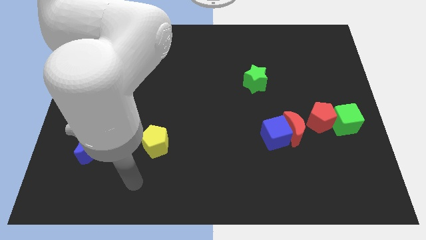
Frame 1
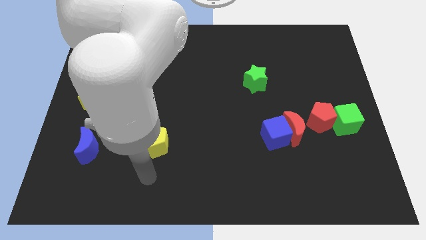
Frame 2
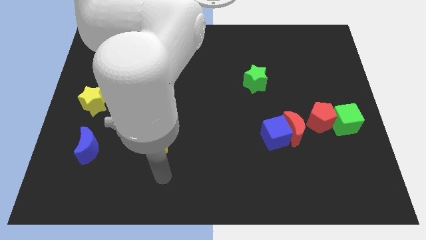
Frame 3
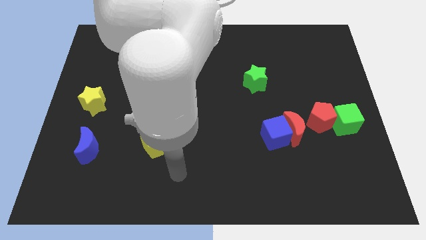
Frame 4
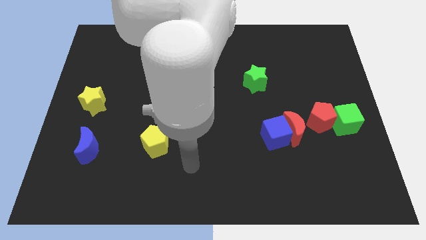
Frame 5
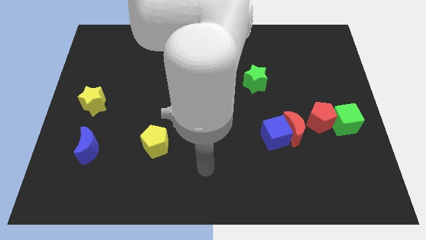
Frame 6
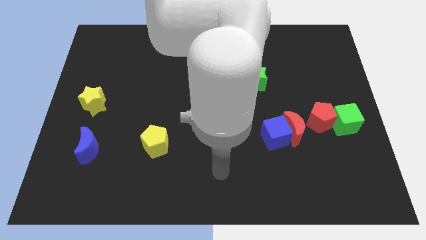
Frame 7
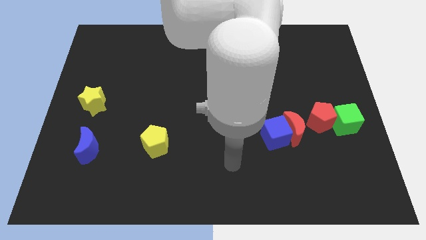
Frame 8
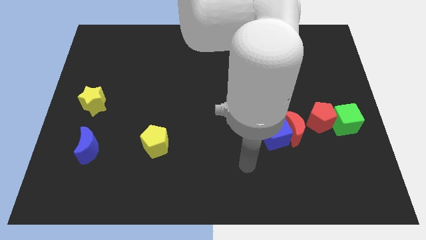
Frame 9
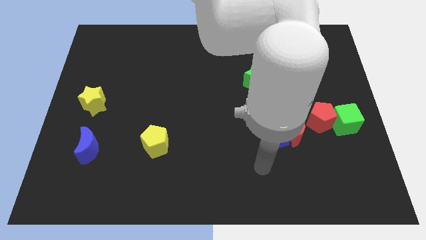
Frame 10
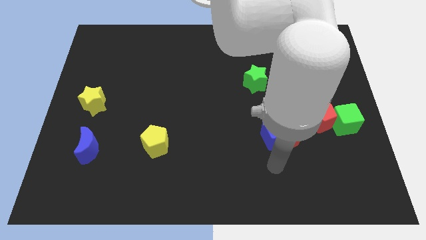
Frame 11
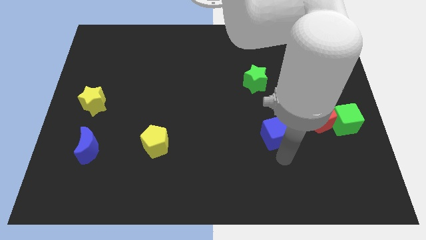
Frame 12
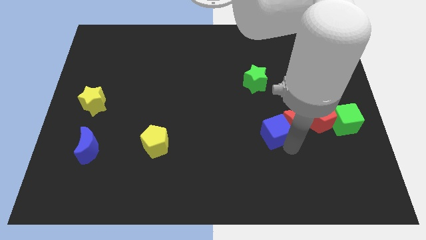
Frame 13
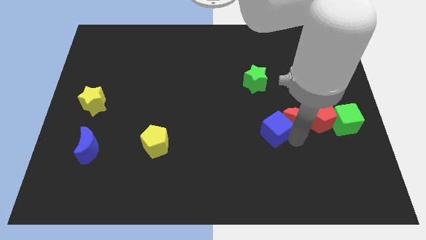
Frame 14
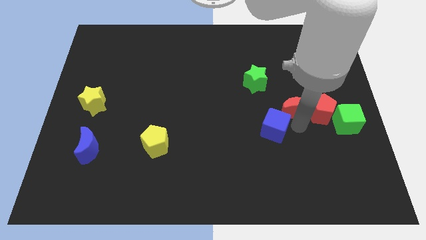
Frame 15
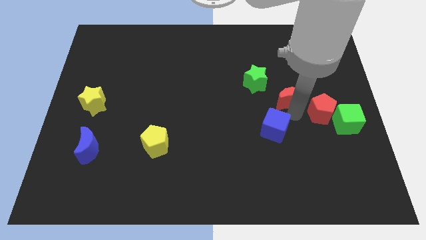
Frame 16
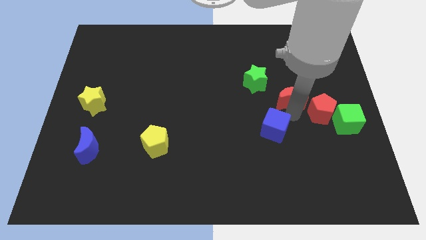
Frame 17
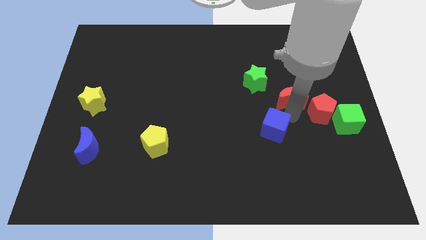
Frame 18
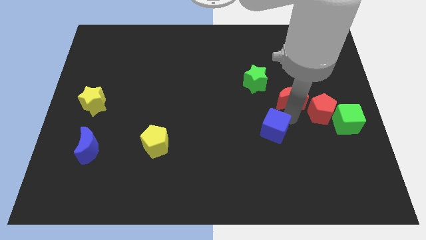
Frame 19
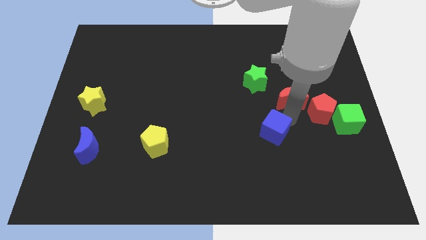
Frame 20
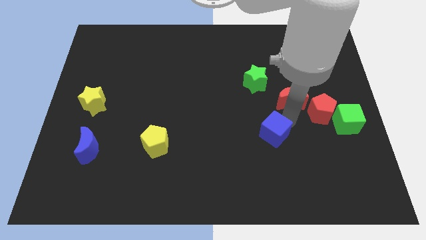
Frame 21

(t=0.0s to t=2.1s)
pull the blue cube apart from the red moon

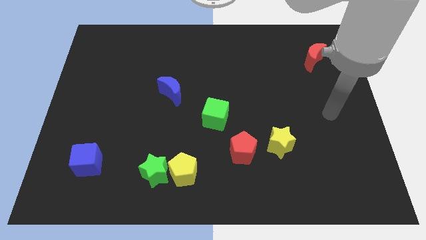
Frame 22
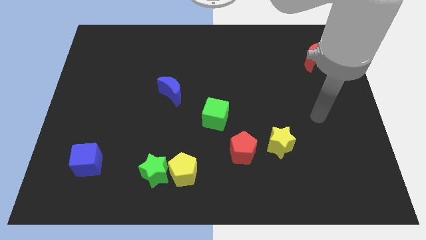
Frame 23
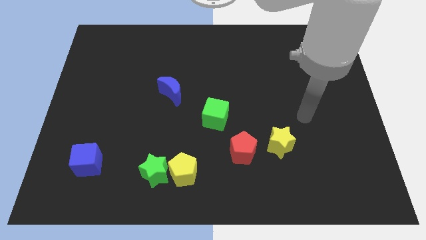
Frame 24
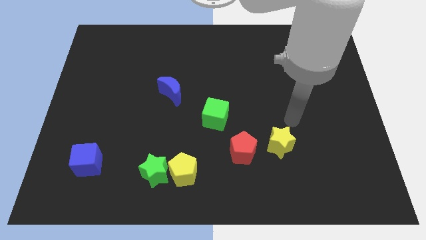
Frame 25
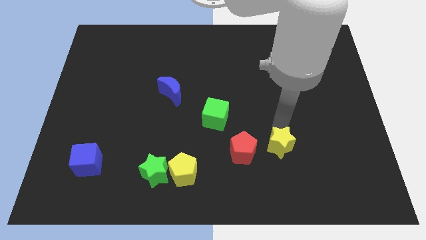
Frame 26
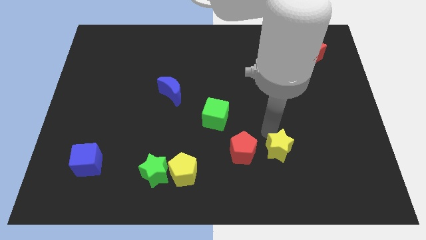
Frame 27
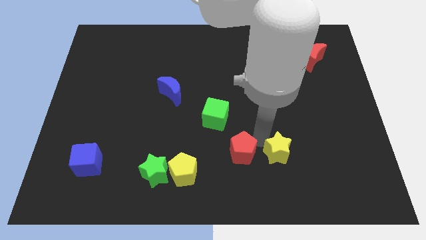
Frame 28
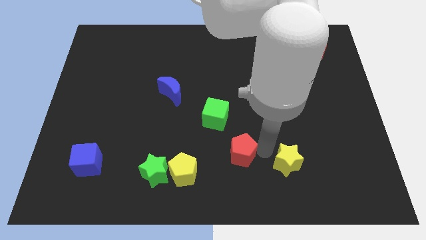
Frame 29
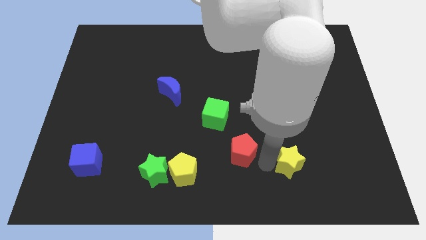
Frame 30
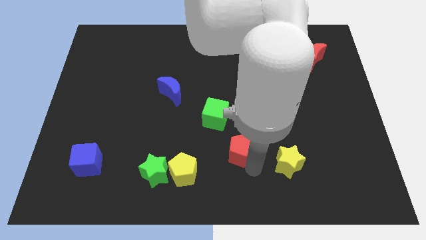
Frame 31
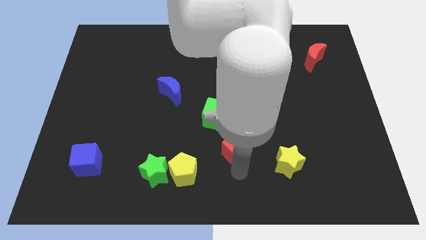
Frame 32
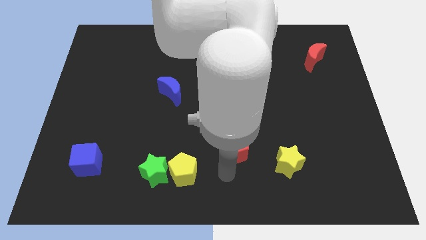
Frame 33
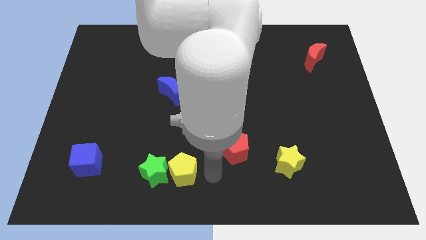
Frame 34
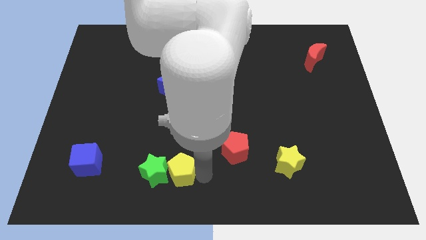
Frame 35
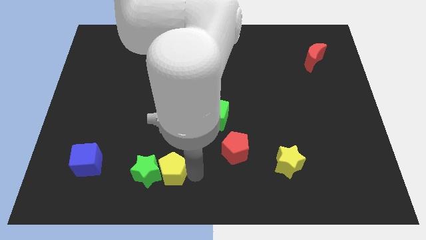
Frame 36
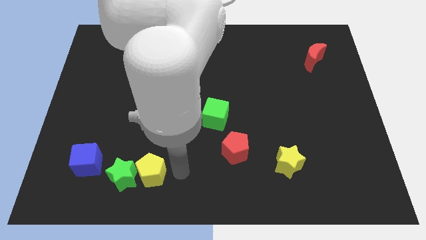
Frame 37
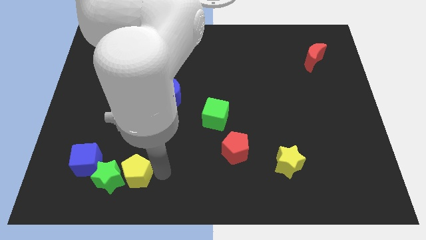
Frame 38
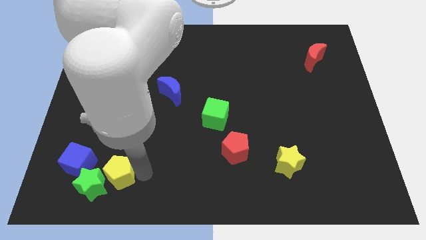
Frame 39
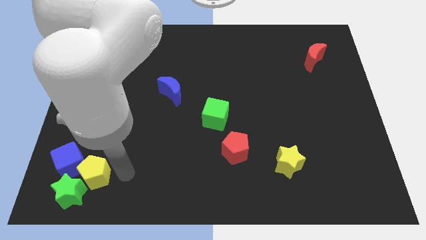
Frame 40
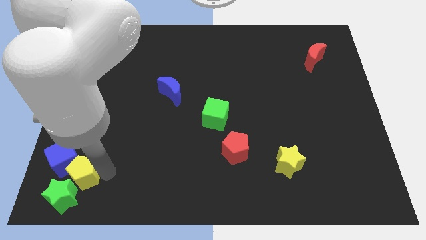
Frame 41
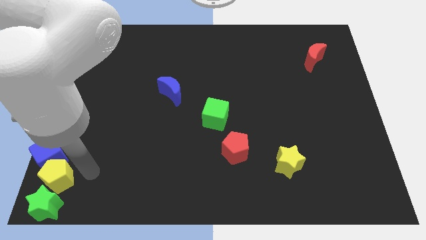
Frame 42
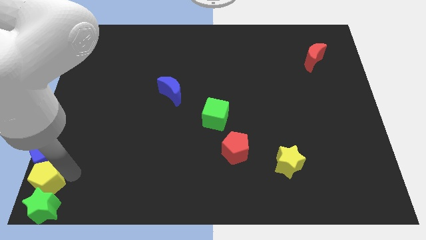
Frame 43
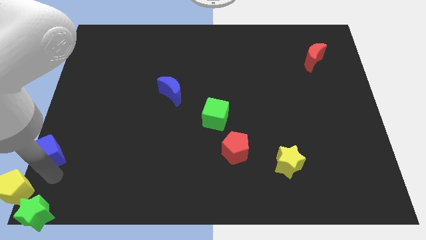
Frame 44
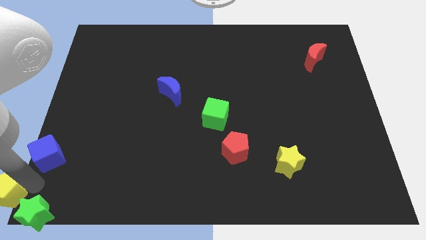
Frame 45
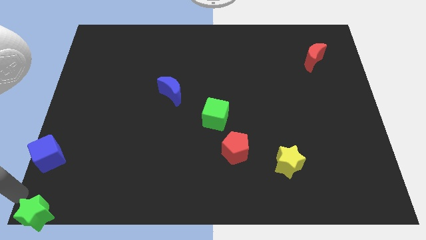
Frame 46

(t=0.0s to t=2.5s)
pull the green star apart from the yellow pentagon

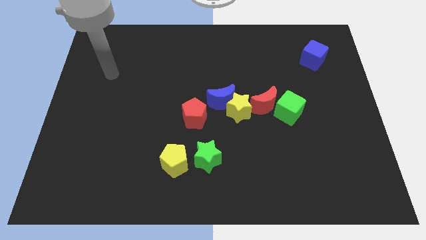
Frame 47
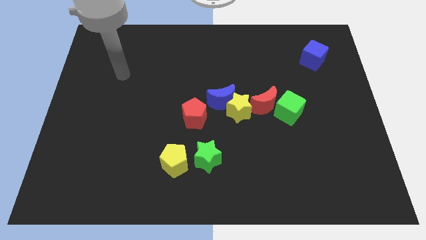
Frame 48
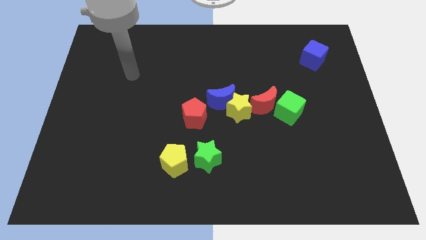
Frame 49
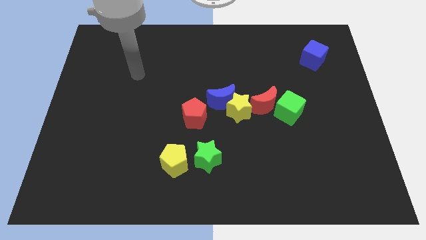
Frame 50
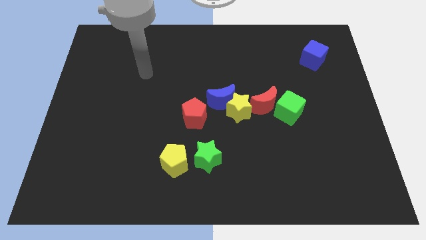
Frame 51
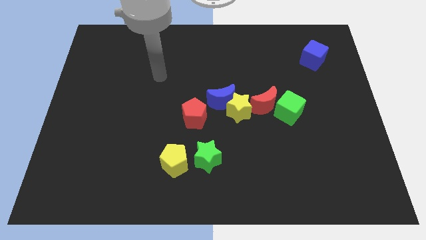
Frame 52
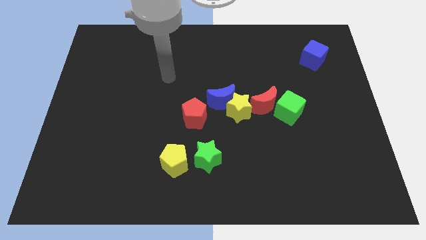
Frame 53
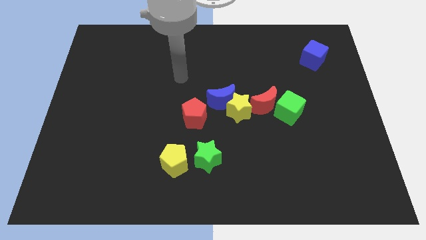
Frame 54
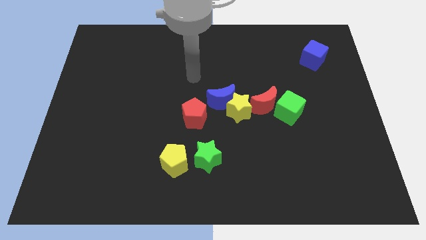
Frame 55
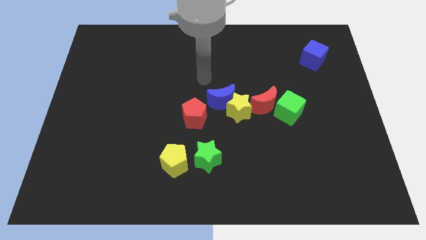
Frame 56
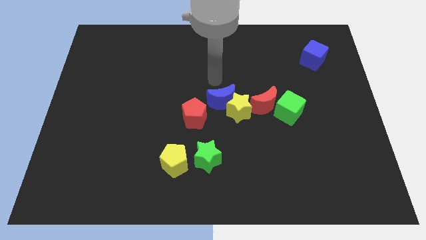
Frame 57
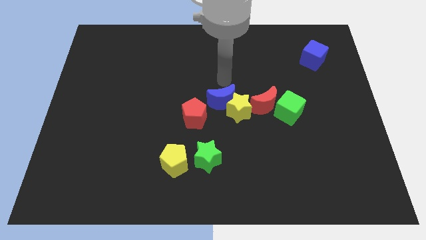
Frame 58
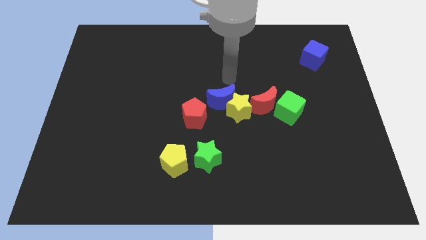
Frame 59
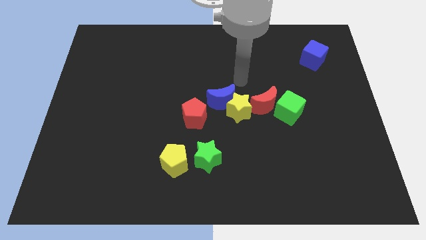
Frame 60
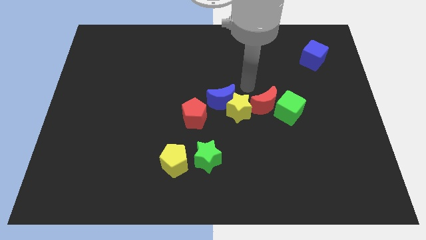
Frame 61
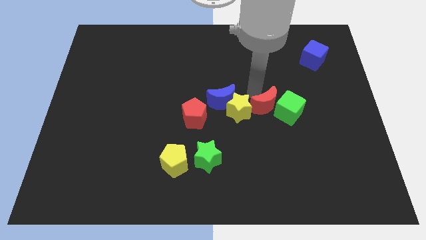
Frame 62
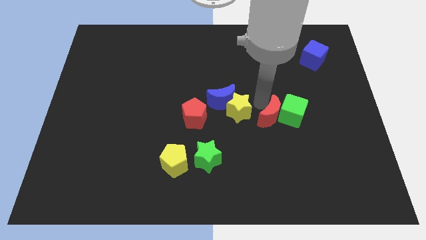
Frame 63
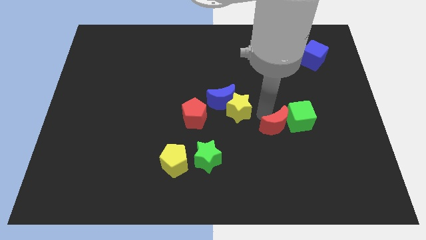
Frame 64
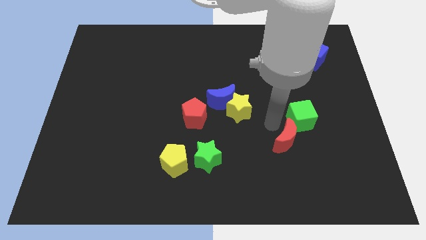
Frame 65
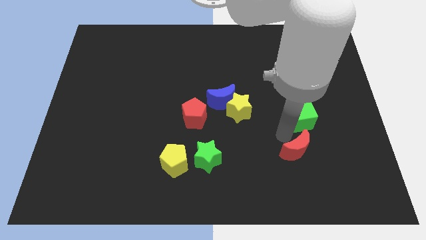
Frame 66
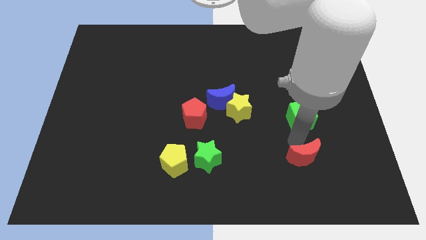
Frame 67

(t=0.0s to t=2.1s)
move the green cube away from the red moon

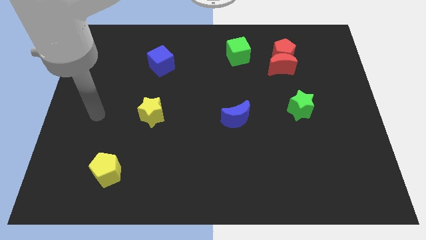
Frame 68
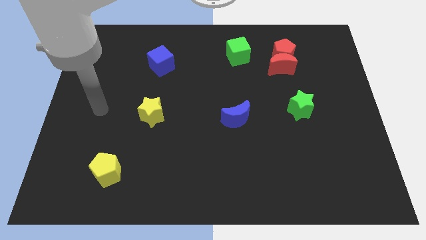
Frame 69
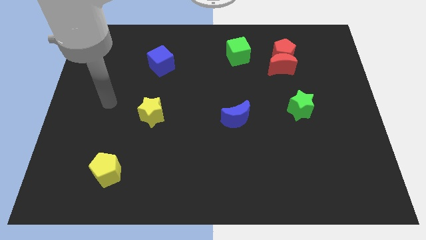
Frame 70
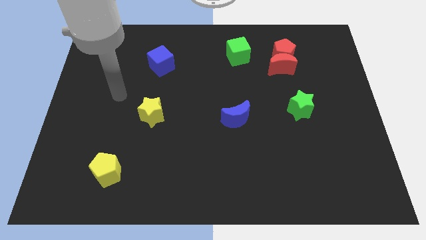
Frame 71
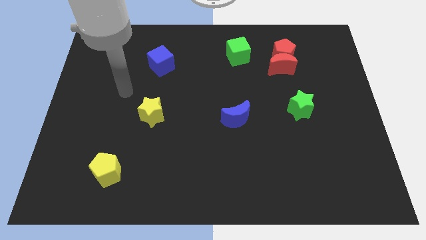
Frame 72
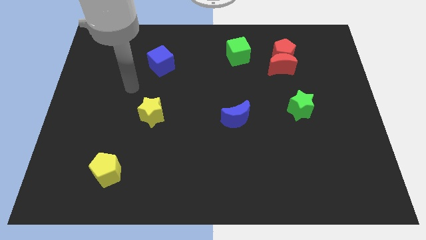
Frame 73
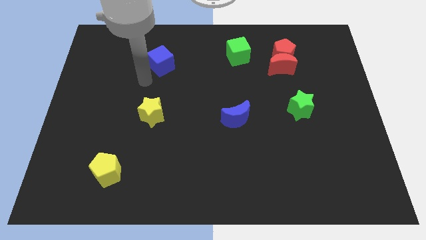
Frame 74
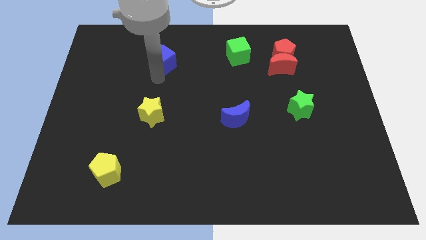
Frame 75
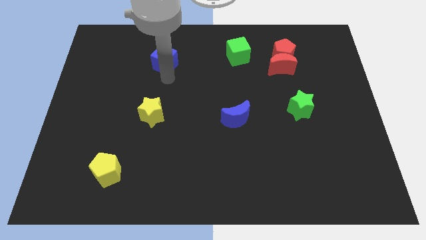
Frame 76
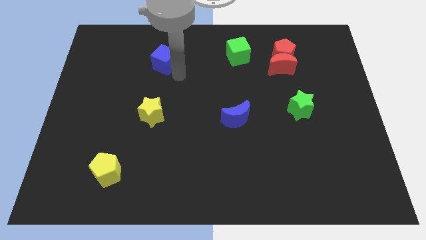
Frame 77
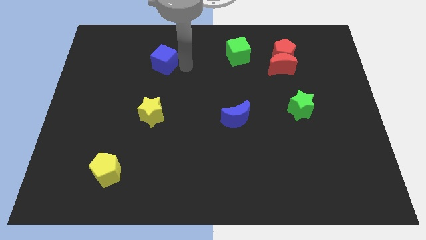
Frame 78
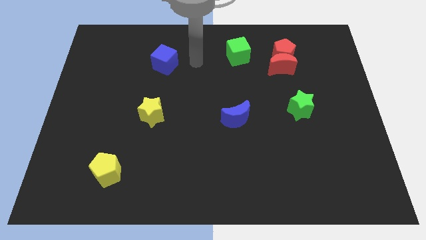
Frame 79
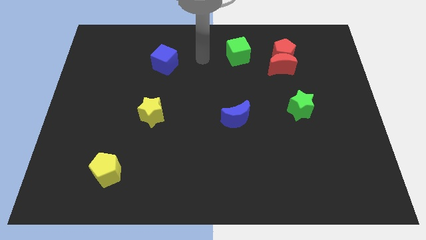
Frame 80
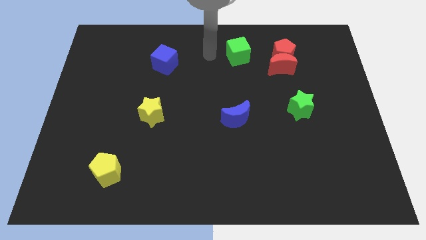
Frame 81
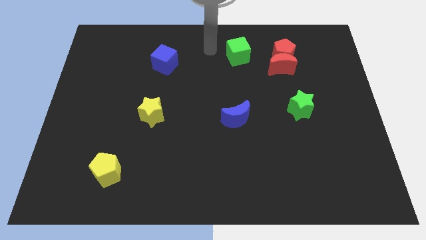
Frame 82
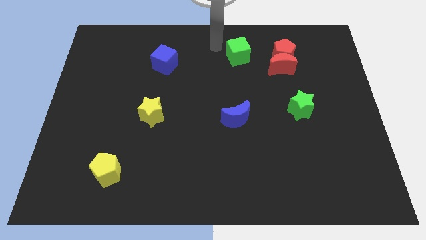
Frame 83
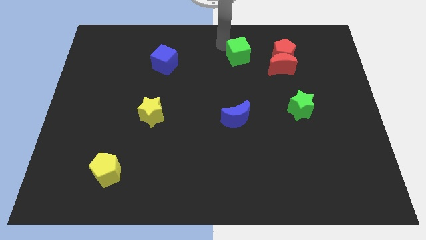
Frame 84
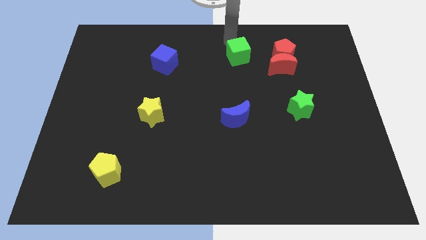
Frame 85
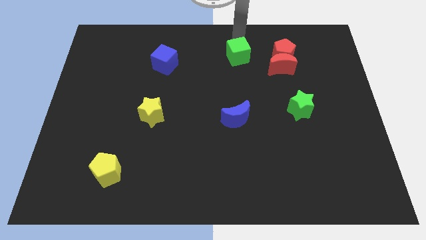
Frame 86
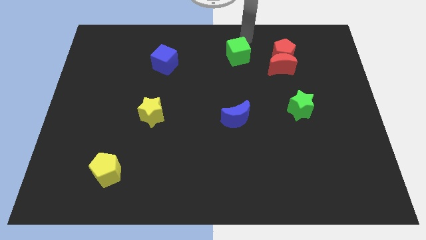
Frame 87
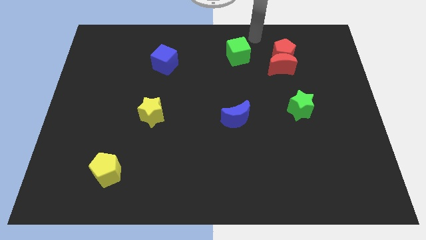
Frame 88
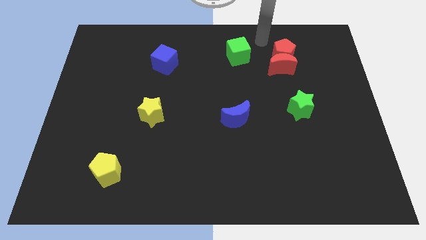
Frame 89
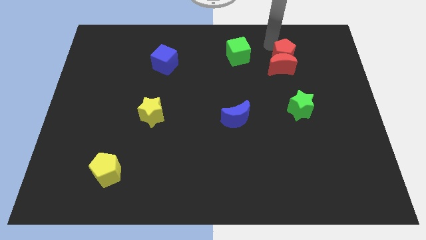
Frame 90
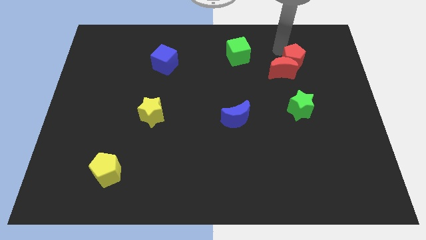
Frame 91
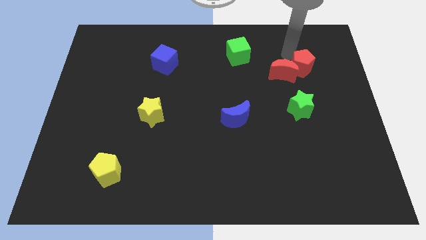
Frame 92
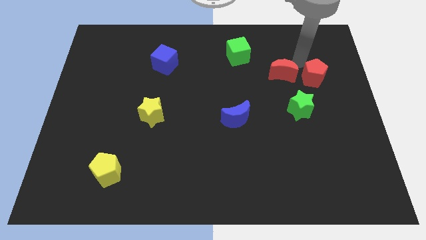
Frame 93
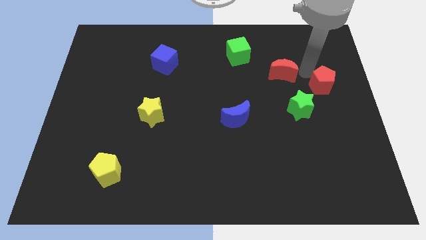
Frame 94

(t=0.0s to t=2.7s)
move the red moon away from the red pentagon
